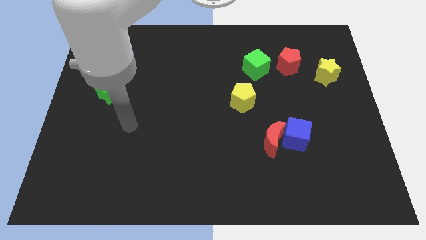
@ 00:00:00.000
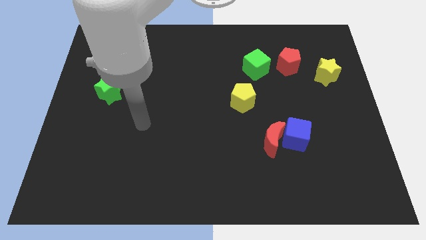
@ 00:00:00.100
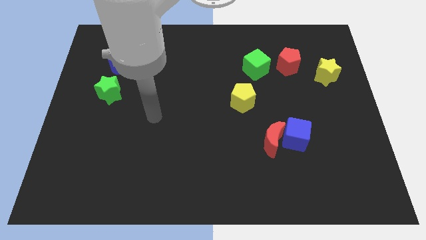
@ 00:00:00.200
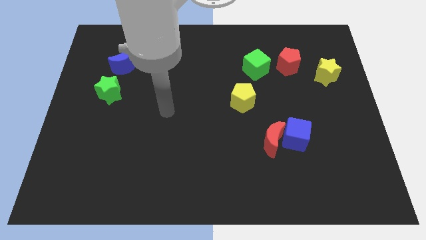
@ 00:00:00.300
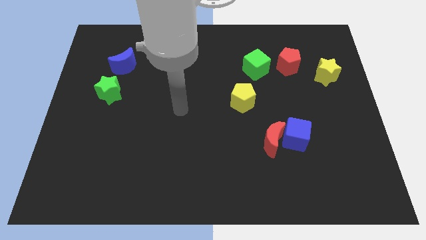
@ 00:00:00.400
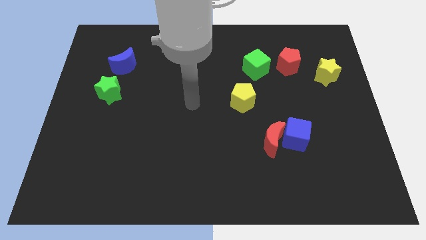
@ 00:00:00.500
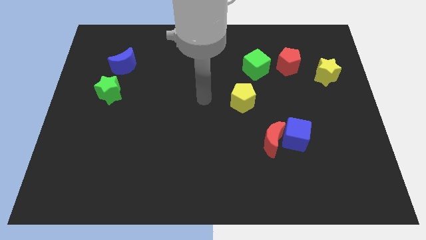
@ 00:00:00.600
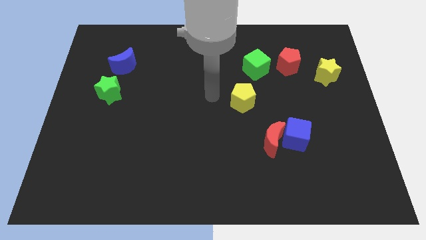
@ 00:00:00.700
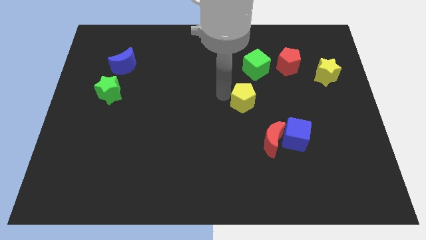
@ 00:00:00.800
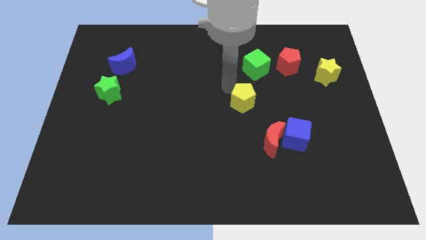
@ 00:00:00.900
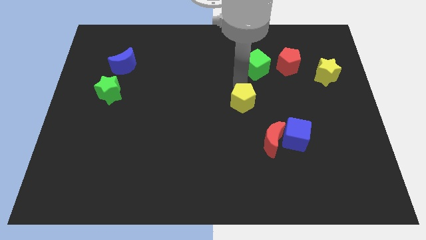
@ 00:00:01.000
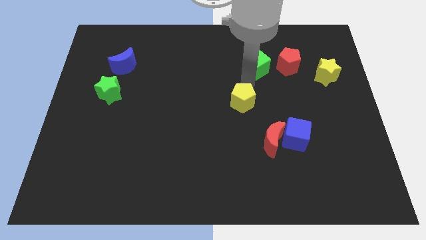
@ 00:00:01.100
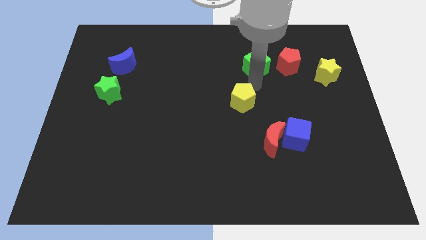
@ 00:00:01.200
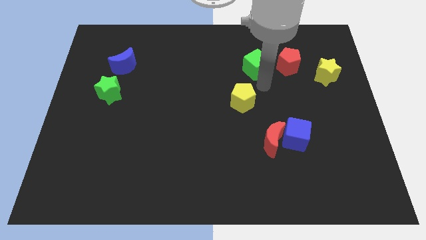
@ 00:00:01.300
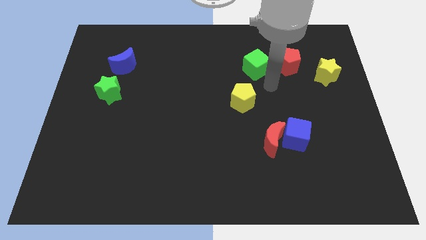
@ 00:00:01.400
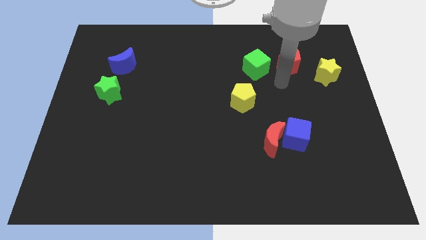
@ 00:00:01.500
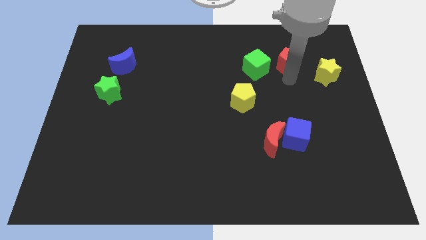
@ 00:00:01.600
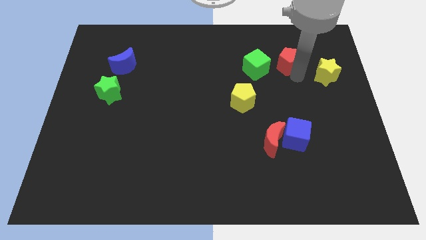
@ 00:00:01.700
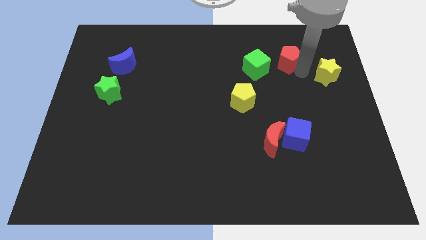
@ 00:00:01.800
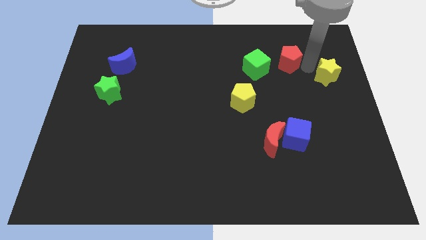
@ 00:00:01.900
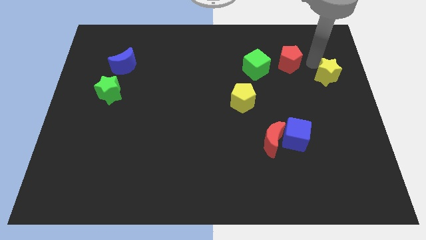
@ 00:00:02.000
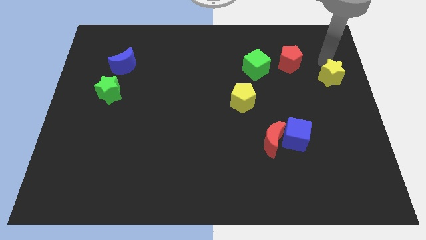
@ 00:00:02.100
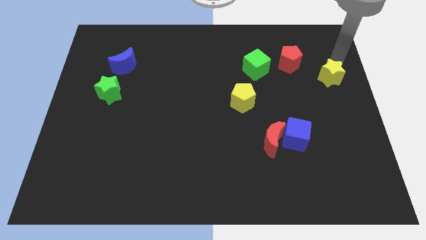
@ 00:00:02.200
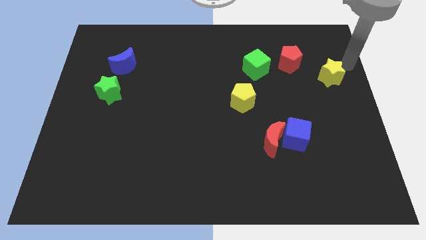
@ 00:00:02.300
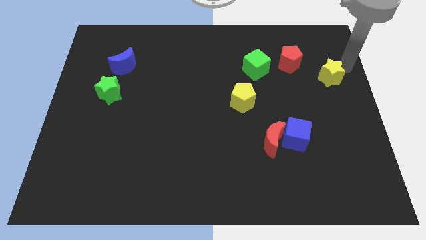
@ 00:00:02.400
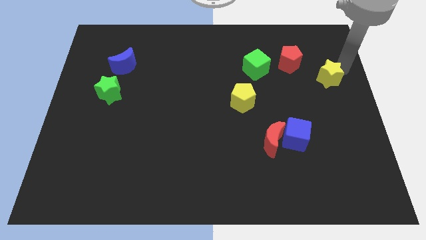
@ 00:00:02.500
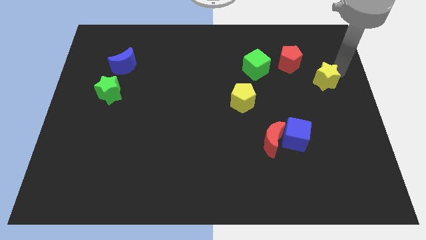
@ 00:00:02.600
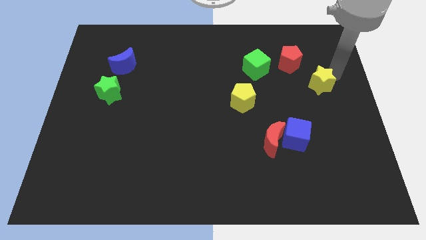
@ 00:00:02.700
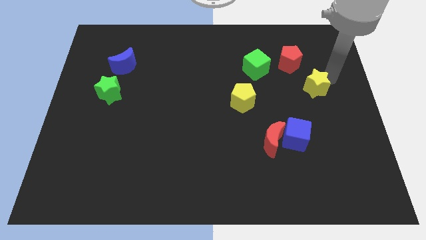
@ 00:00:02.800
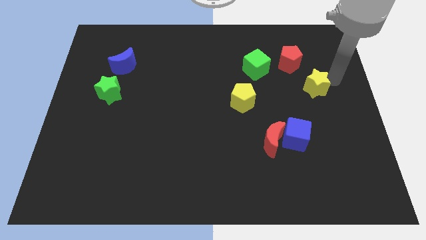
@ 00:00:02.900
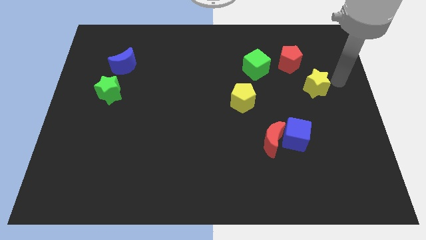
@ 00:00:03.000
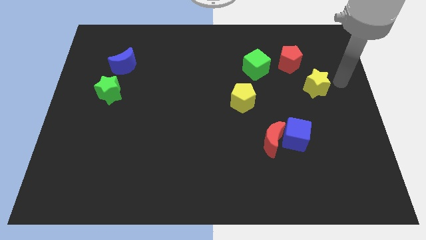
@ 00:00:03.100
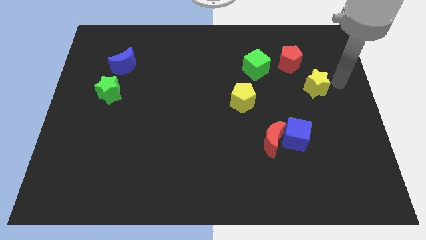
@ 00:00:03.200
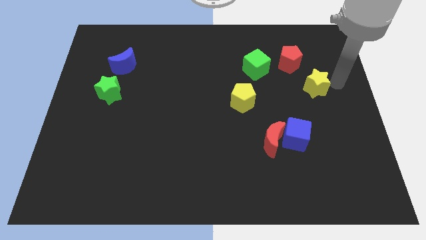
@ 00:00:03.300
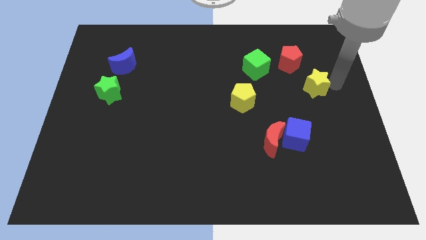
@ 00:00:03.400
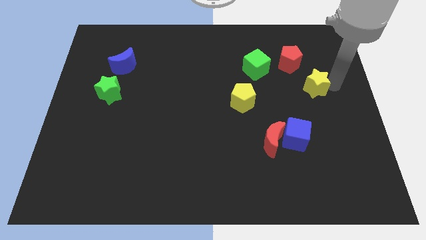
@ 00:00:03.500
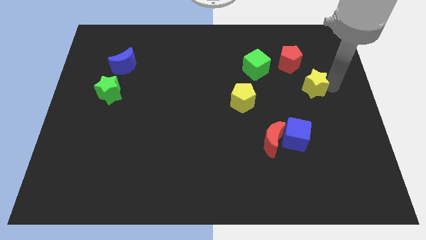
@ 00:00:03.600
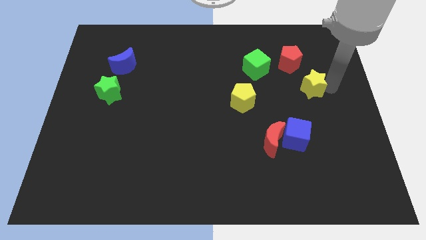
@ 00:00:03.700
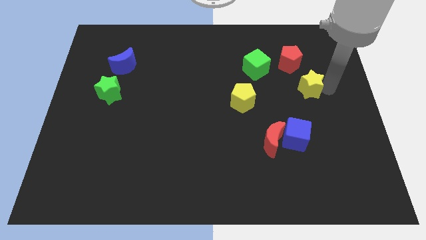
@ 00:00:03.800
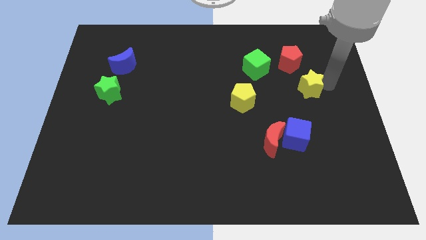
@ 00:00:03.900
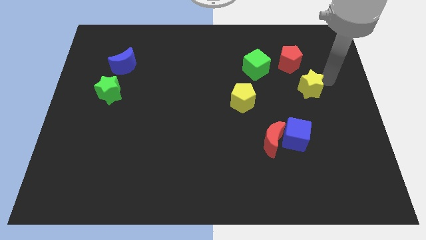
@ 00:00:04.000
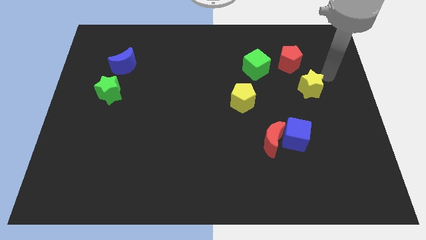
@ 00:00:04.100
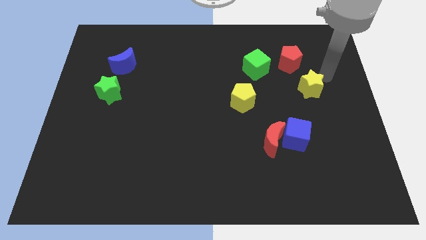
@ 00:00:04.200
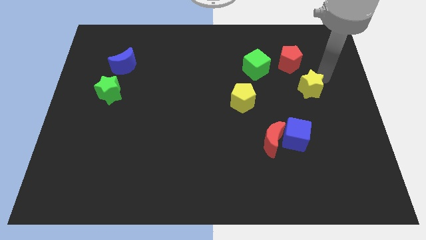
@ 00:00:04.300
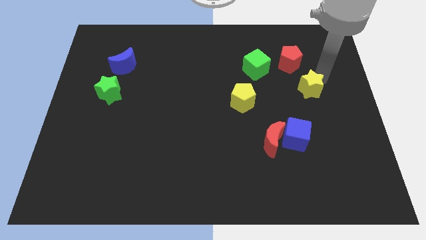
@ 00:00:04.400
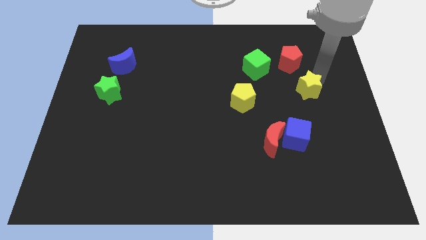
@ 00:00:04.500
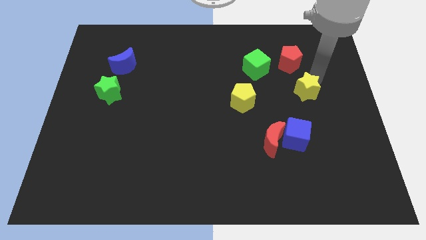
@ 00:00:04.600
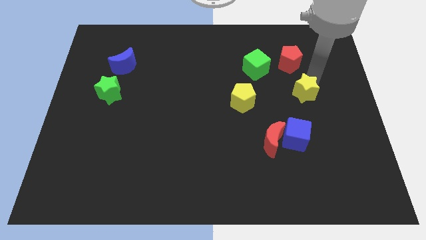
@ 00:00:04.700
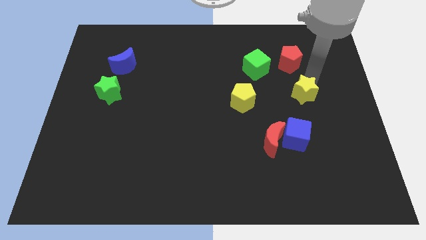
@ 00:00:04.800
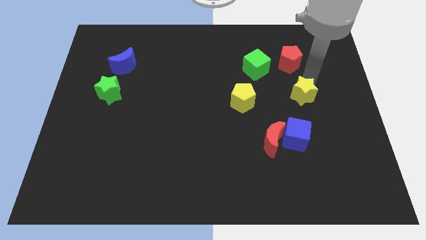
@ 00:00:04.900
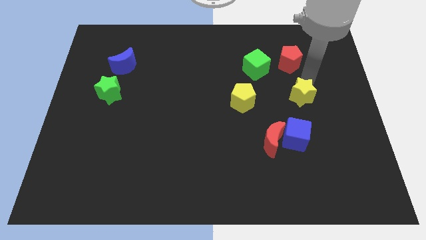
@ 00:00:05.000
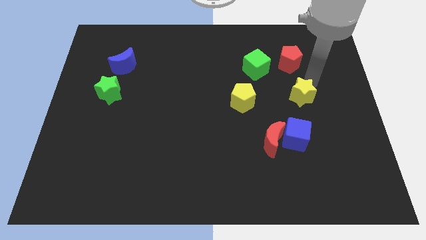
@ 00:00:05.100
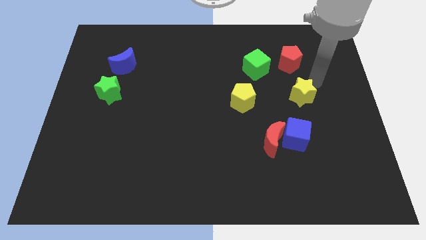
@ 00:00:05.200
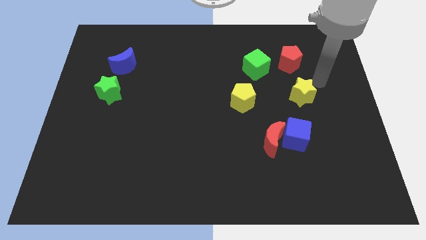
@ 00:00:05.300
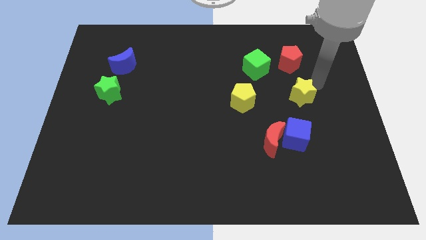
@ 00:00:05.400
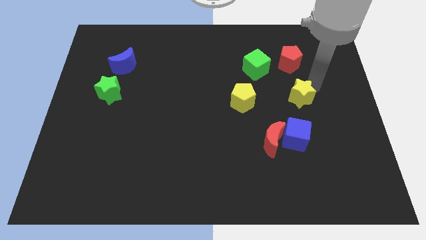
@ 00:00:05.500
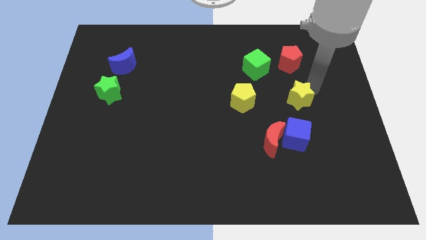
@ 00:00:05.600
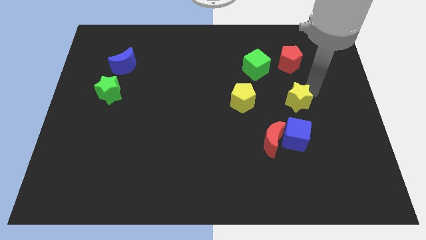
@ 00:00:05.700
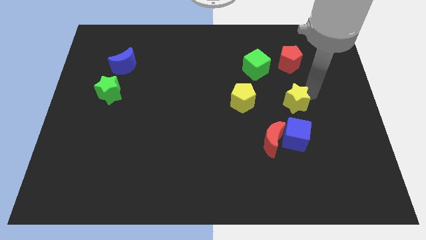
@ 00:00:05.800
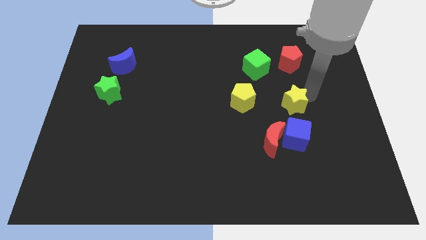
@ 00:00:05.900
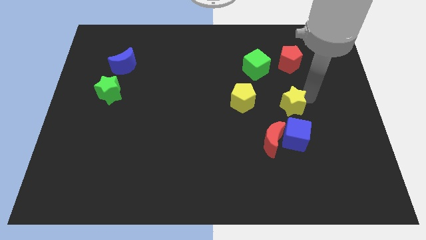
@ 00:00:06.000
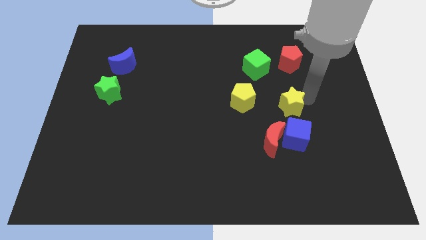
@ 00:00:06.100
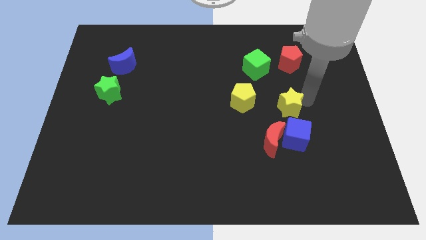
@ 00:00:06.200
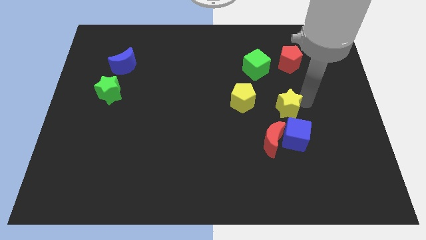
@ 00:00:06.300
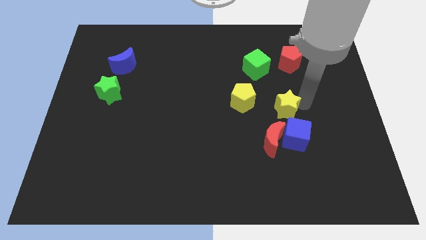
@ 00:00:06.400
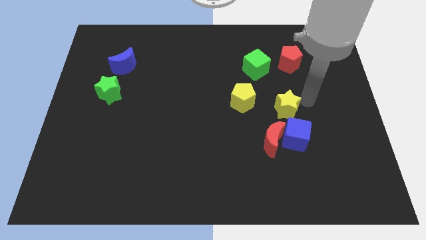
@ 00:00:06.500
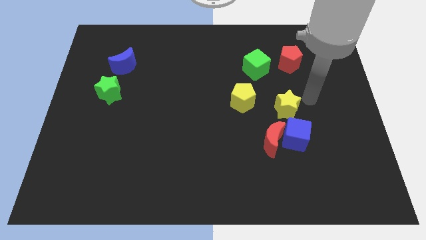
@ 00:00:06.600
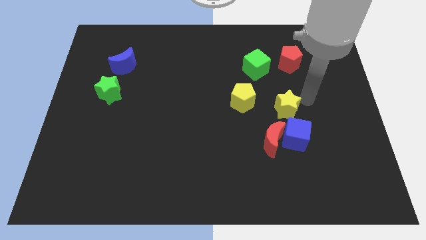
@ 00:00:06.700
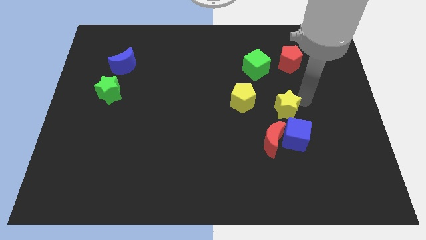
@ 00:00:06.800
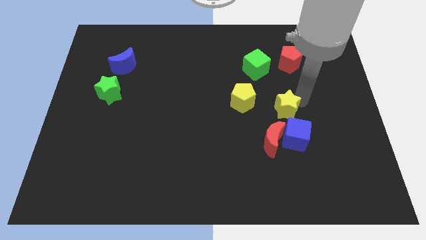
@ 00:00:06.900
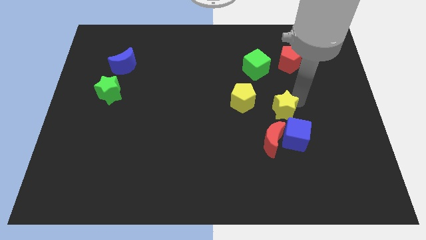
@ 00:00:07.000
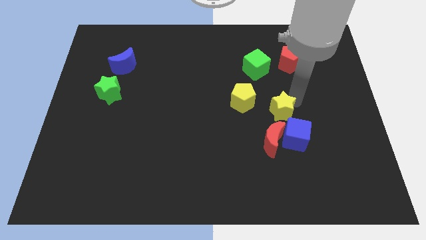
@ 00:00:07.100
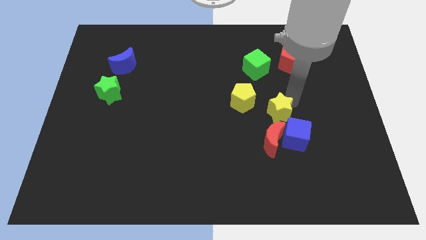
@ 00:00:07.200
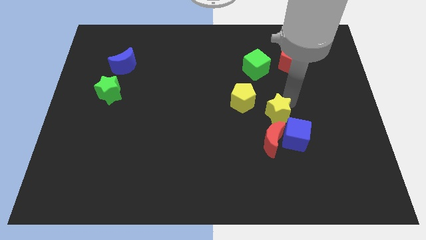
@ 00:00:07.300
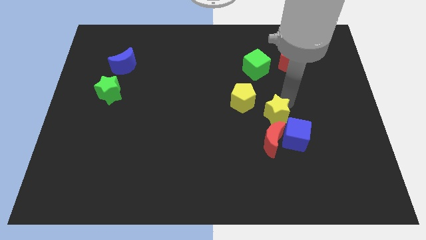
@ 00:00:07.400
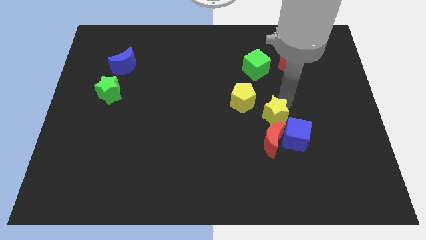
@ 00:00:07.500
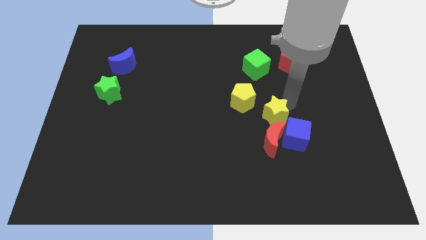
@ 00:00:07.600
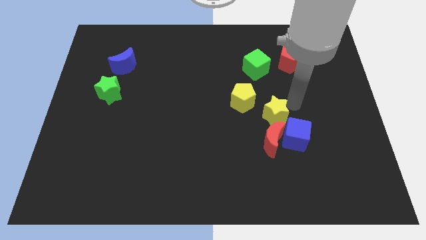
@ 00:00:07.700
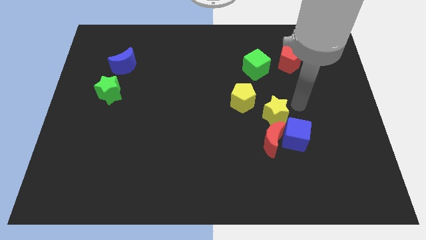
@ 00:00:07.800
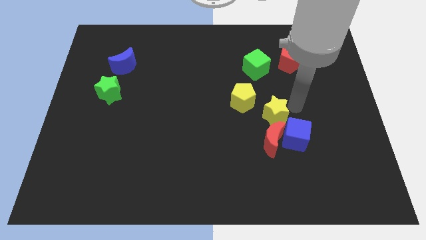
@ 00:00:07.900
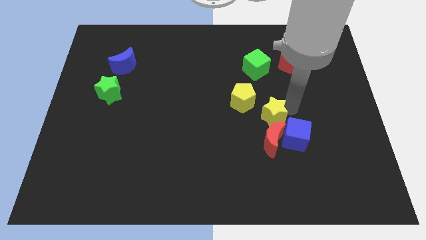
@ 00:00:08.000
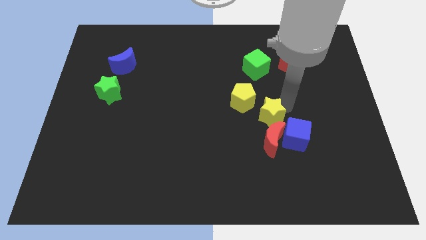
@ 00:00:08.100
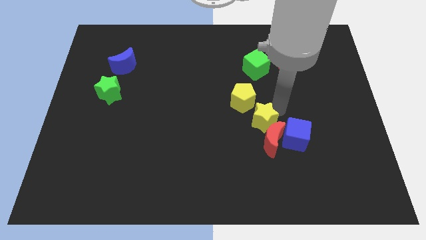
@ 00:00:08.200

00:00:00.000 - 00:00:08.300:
put the yellow star to the left of the blue cube
